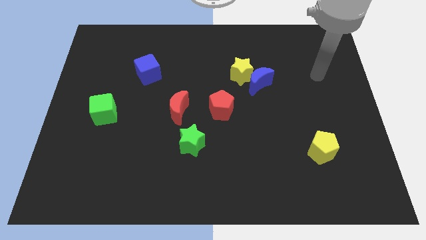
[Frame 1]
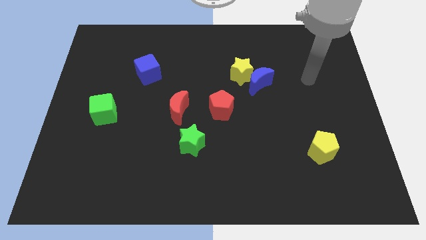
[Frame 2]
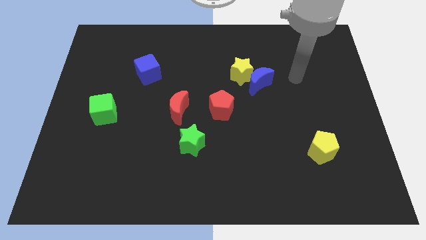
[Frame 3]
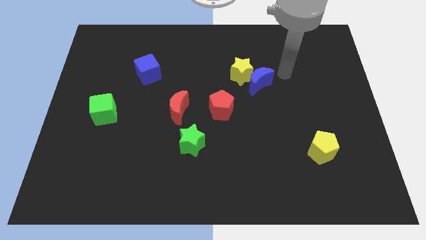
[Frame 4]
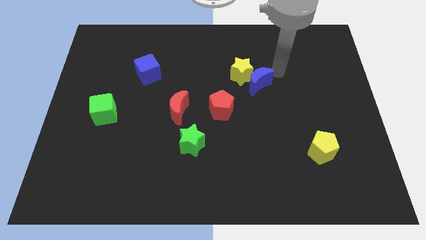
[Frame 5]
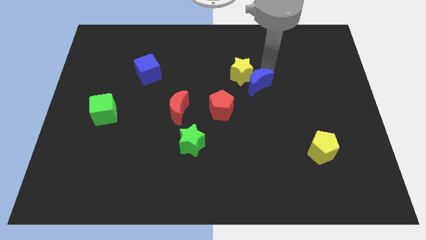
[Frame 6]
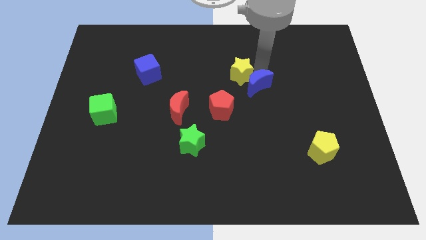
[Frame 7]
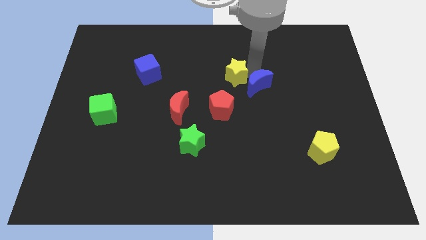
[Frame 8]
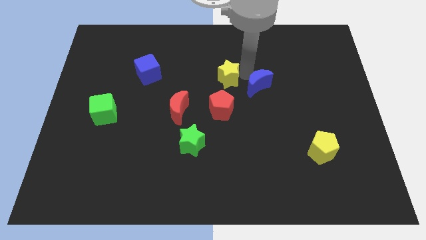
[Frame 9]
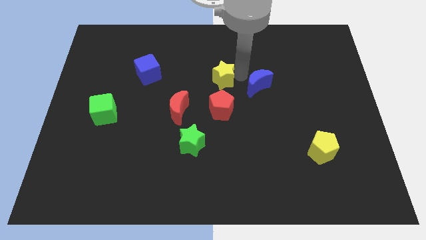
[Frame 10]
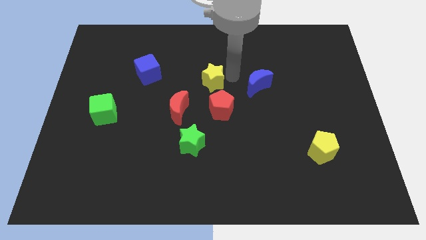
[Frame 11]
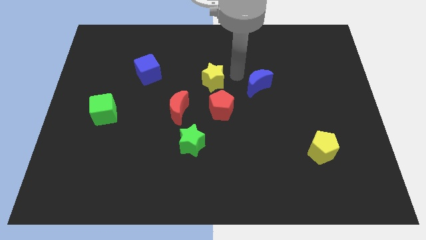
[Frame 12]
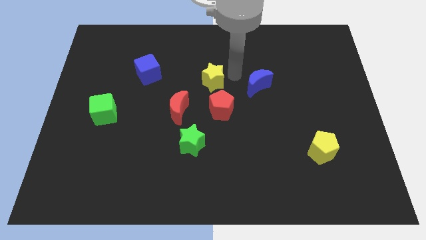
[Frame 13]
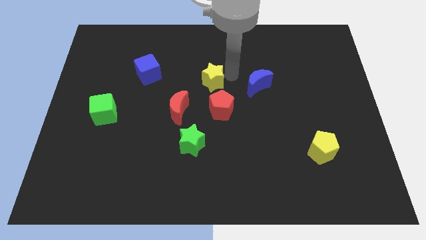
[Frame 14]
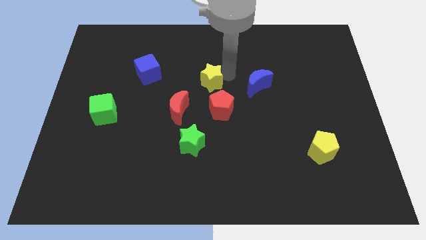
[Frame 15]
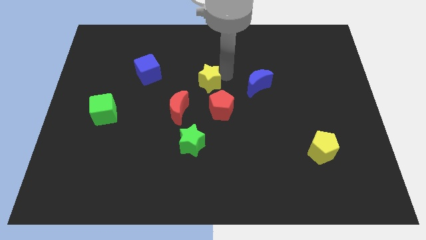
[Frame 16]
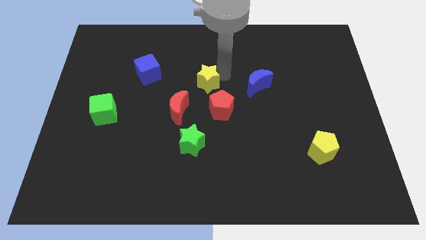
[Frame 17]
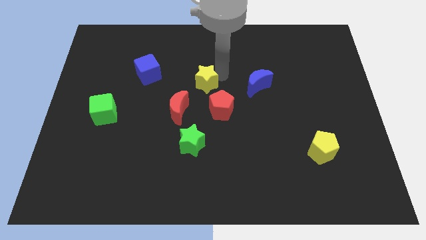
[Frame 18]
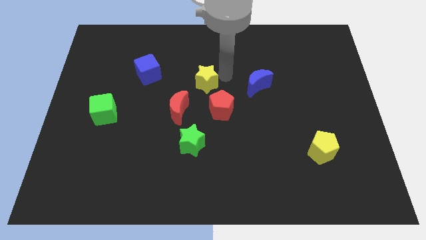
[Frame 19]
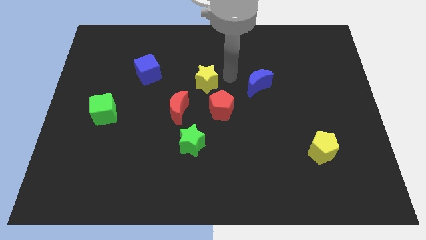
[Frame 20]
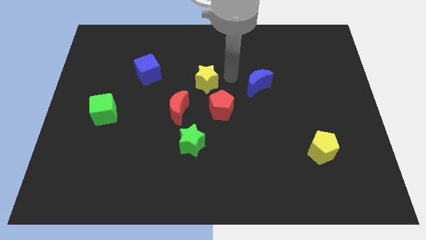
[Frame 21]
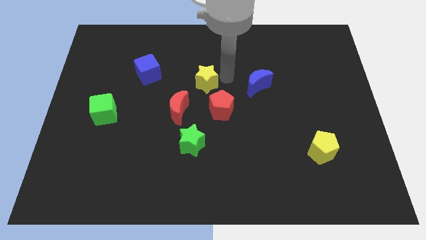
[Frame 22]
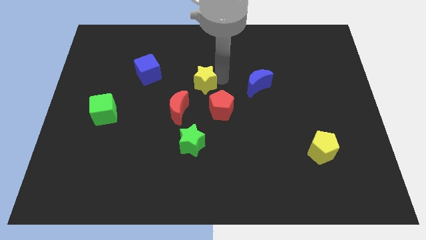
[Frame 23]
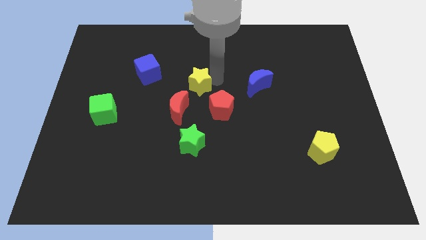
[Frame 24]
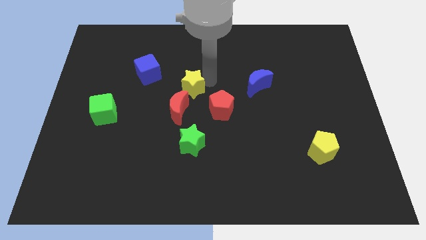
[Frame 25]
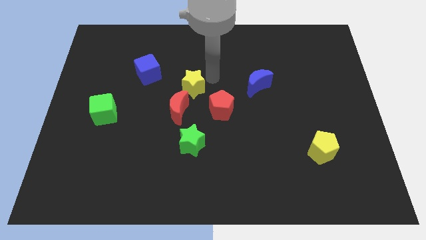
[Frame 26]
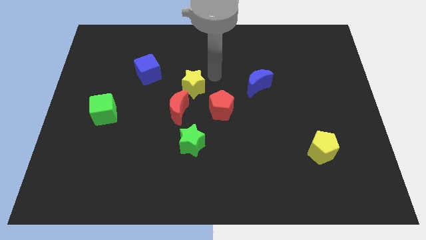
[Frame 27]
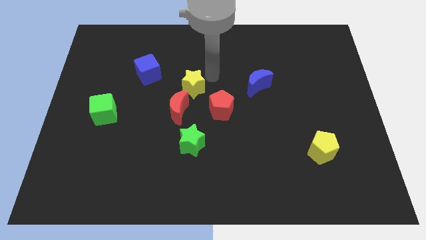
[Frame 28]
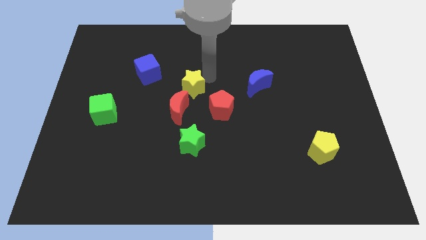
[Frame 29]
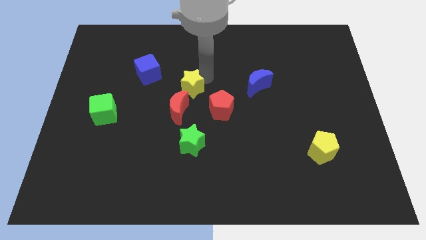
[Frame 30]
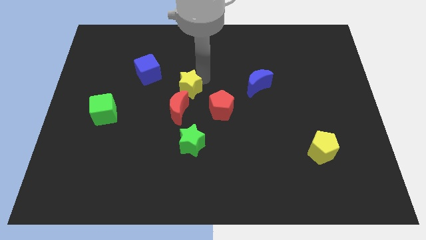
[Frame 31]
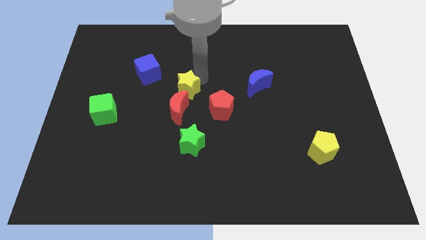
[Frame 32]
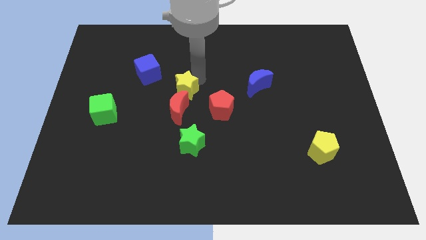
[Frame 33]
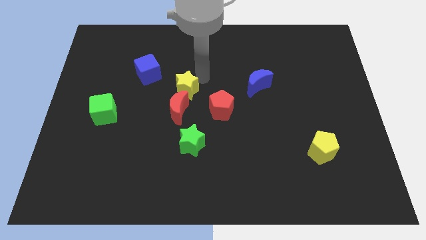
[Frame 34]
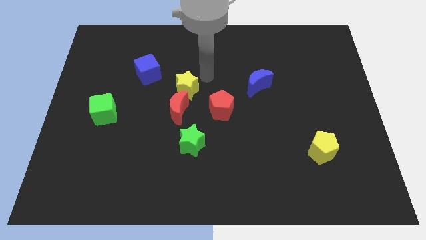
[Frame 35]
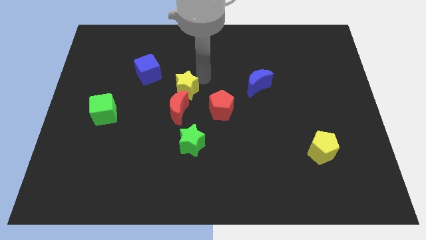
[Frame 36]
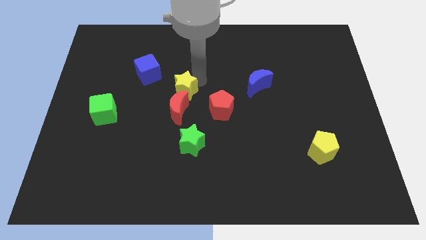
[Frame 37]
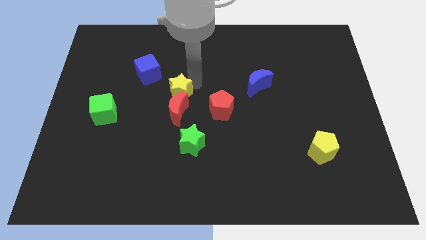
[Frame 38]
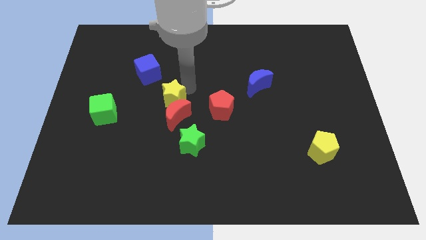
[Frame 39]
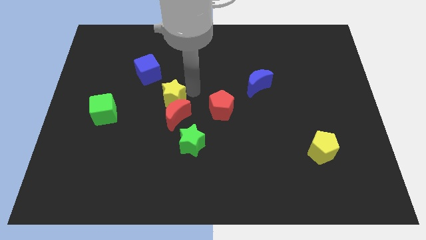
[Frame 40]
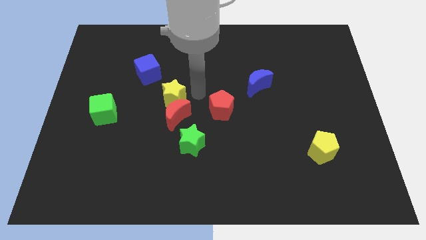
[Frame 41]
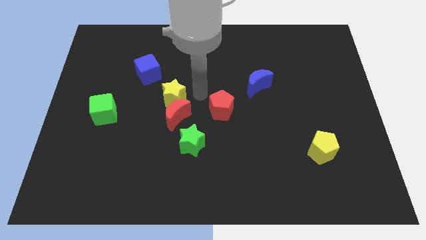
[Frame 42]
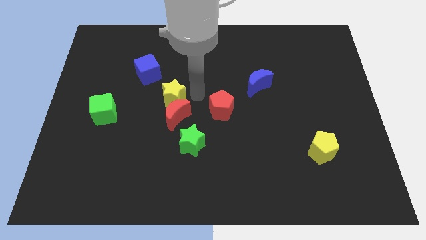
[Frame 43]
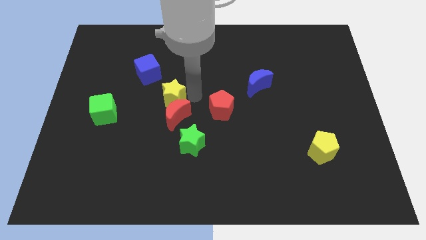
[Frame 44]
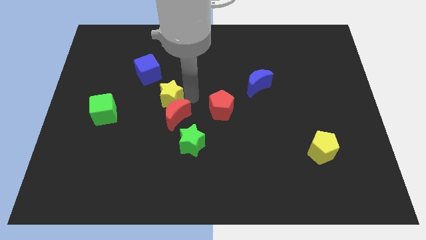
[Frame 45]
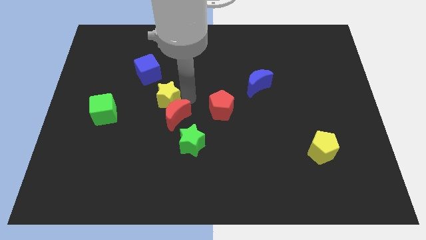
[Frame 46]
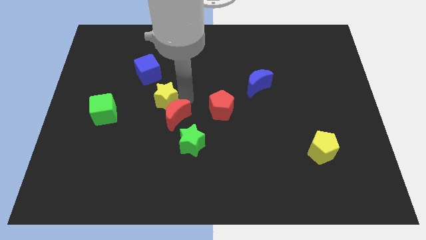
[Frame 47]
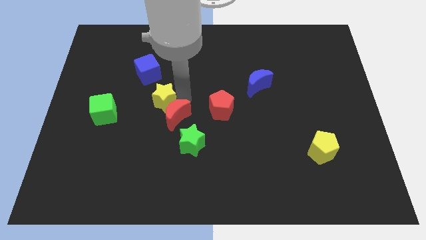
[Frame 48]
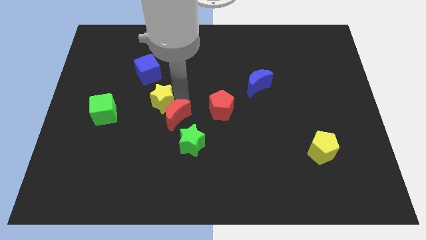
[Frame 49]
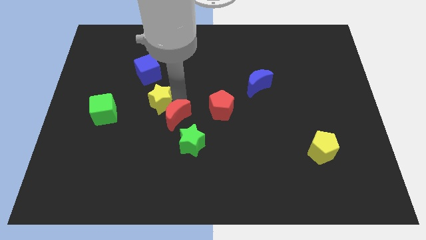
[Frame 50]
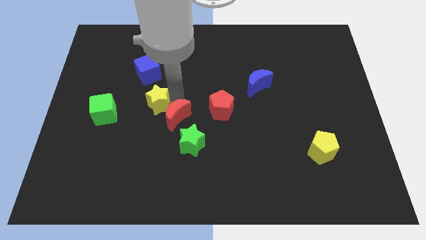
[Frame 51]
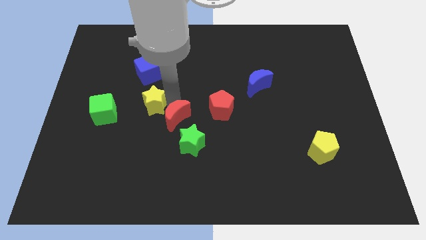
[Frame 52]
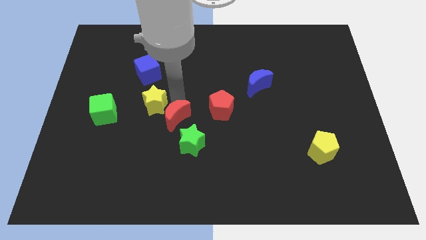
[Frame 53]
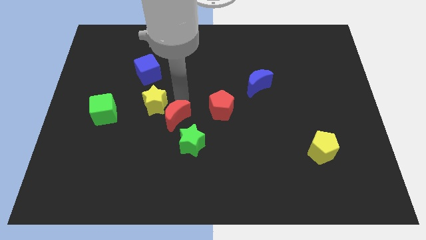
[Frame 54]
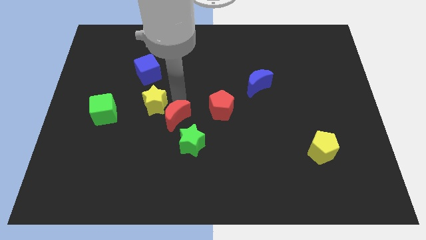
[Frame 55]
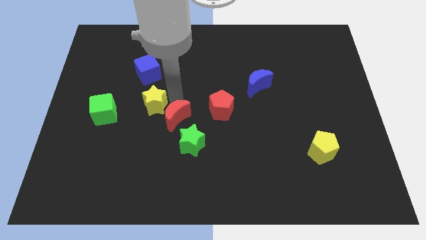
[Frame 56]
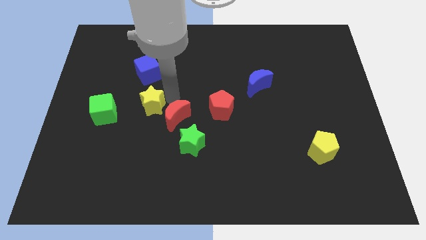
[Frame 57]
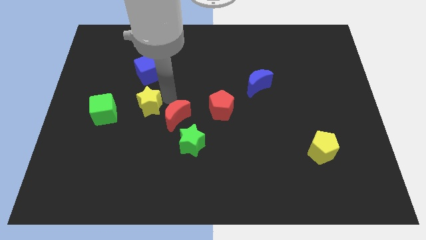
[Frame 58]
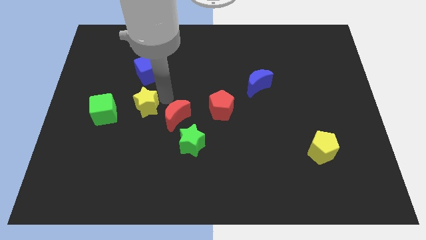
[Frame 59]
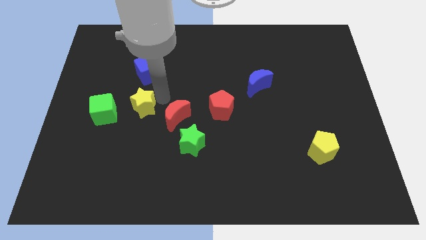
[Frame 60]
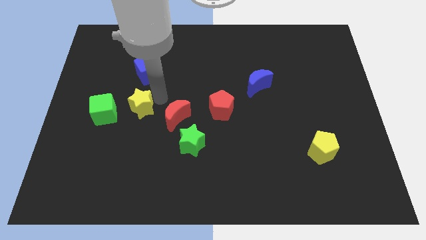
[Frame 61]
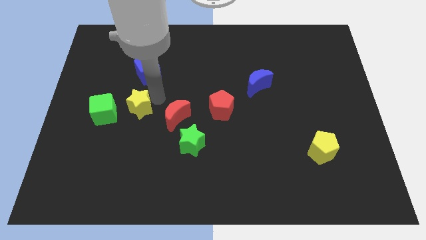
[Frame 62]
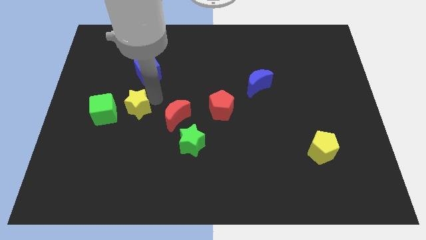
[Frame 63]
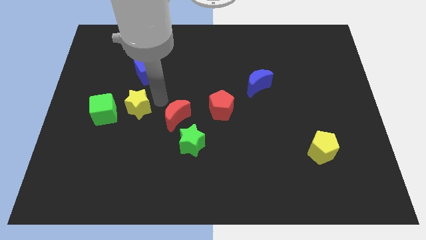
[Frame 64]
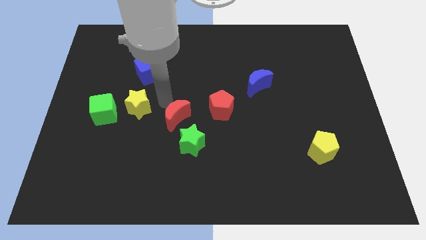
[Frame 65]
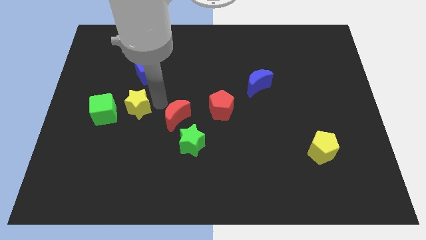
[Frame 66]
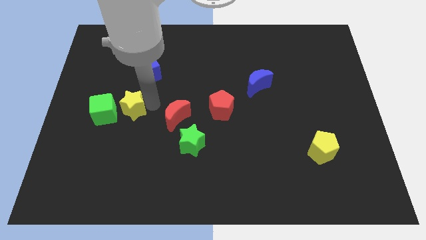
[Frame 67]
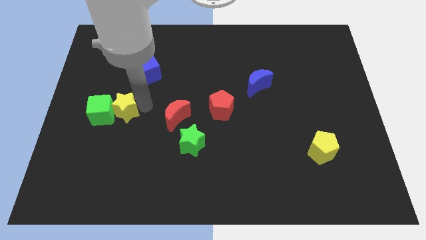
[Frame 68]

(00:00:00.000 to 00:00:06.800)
put the yellow star next to the green cube

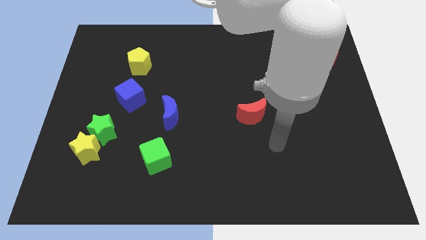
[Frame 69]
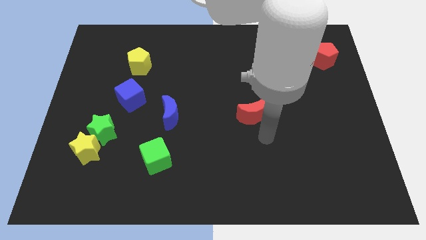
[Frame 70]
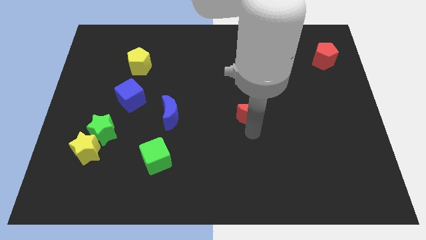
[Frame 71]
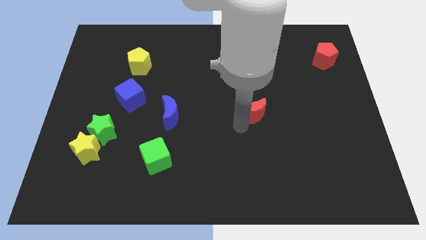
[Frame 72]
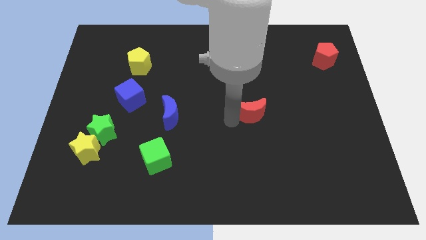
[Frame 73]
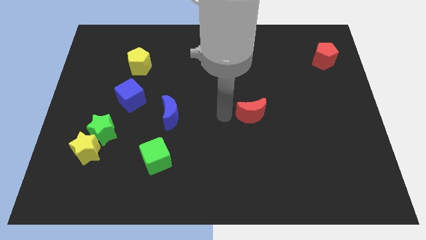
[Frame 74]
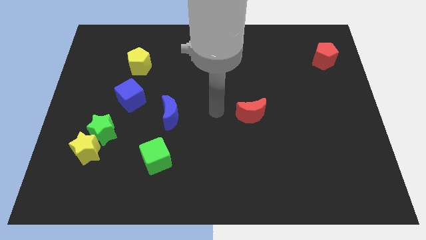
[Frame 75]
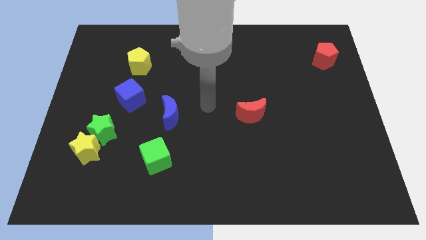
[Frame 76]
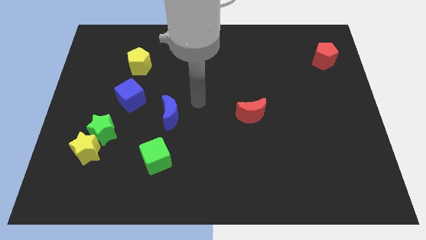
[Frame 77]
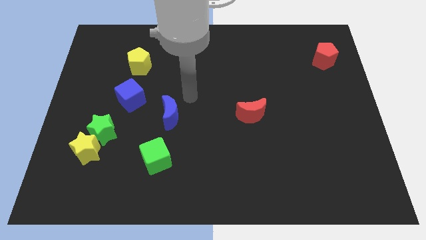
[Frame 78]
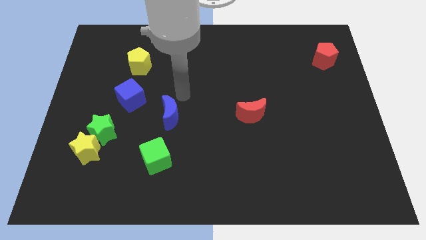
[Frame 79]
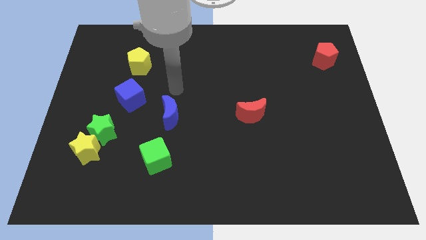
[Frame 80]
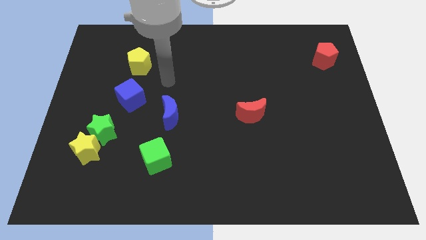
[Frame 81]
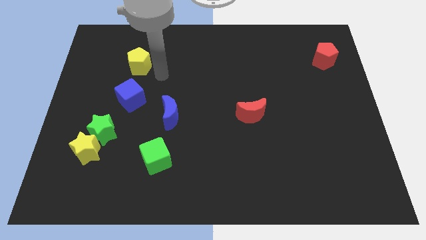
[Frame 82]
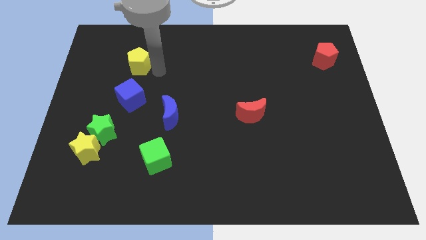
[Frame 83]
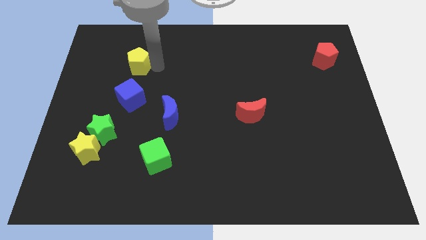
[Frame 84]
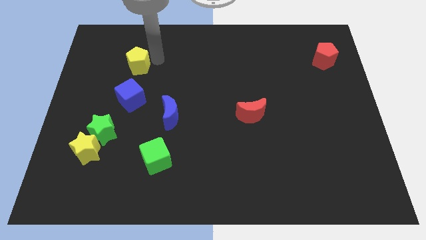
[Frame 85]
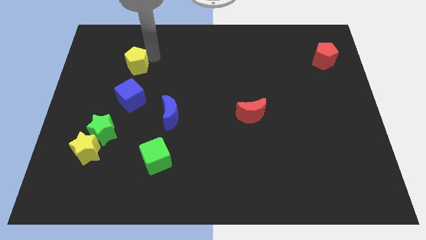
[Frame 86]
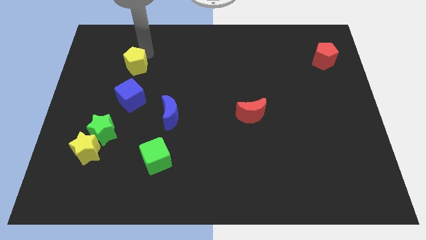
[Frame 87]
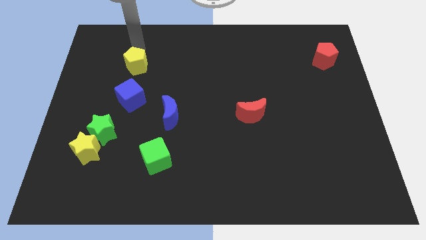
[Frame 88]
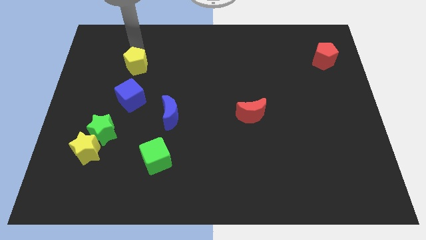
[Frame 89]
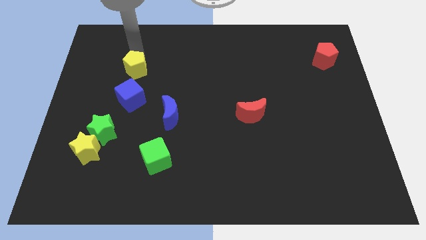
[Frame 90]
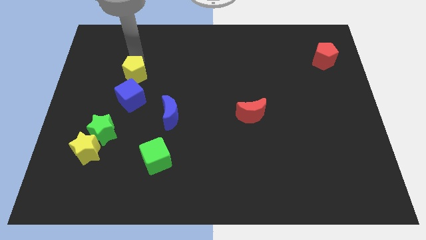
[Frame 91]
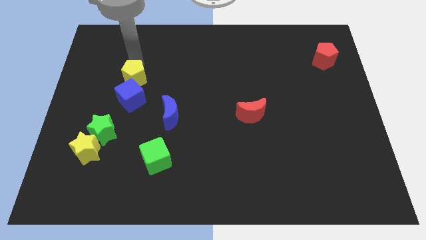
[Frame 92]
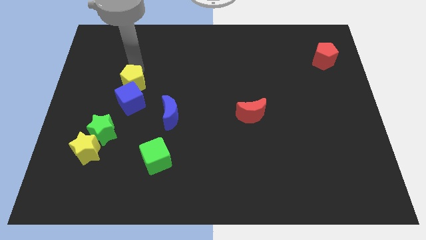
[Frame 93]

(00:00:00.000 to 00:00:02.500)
slide the yellow pentagon towards the blue cube
